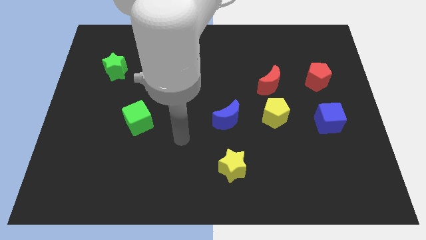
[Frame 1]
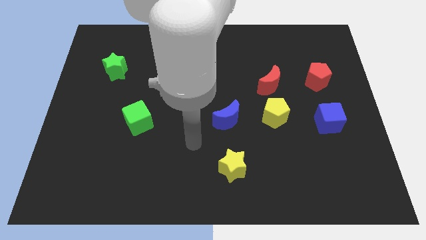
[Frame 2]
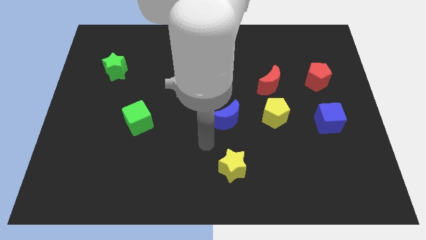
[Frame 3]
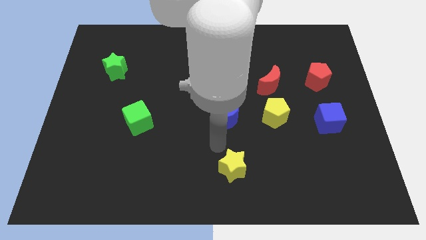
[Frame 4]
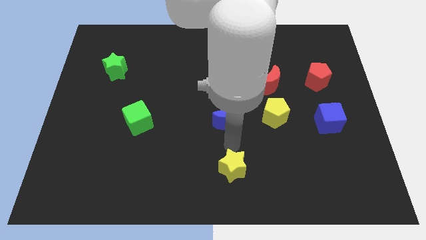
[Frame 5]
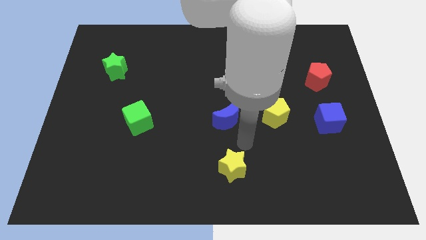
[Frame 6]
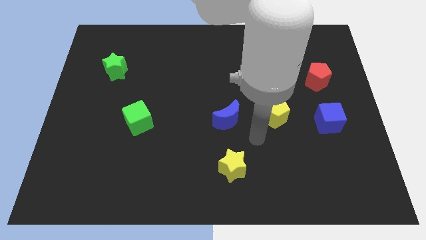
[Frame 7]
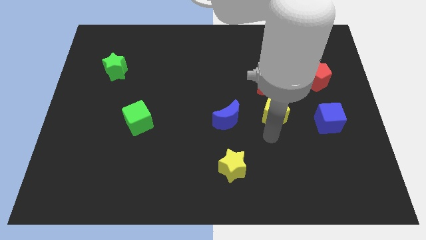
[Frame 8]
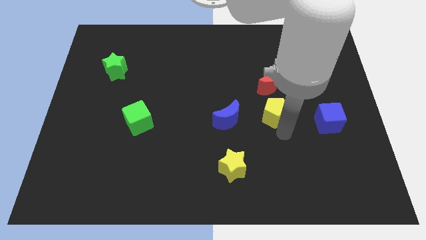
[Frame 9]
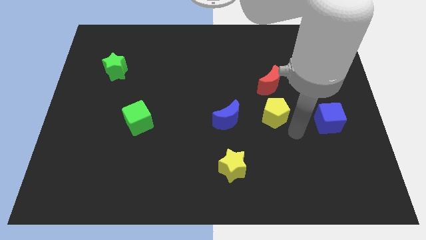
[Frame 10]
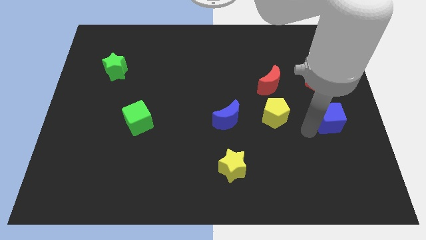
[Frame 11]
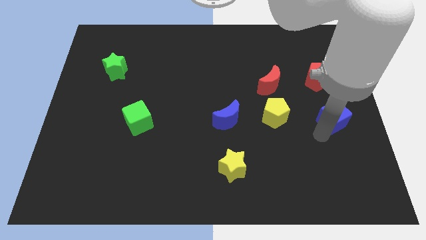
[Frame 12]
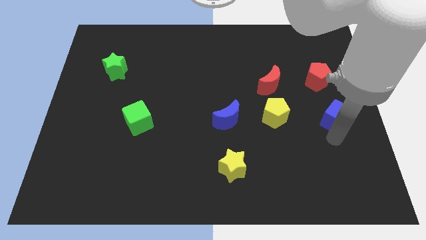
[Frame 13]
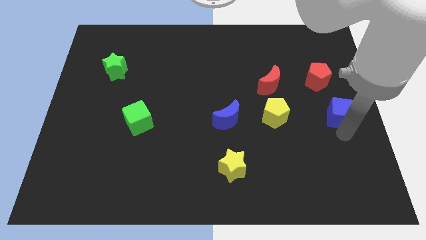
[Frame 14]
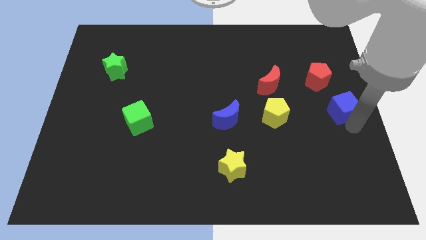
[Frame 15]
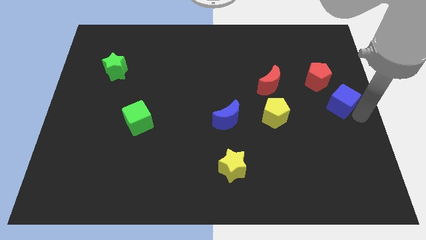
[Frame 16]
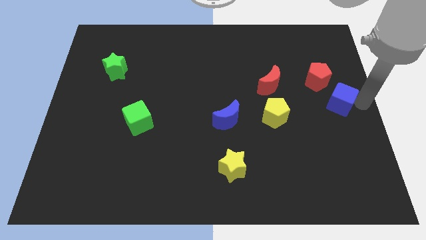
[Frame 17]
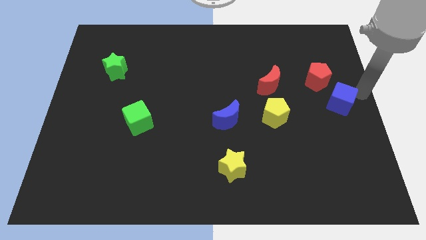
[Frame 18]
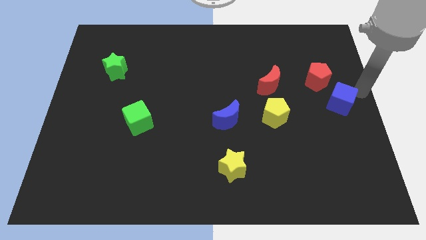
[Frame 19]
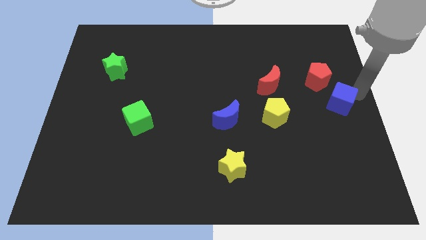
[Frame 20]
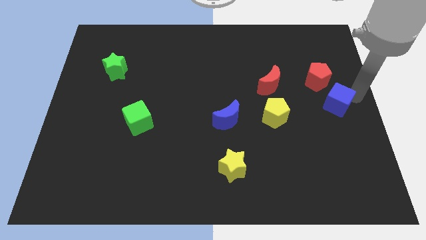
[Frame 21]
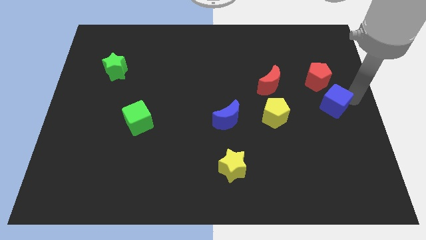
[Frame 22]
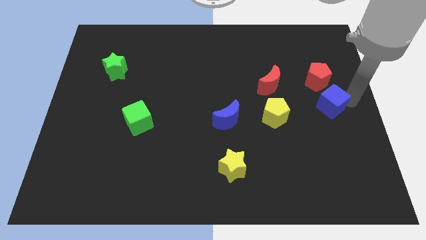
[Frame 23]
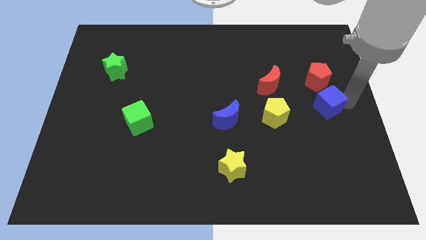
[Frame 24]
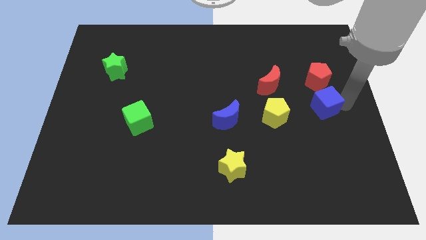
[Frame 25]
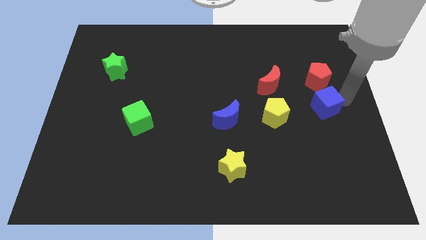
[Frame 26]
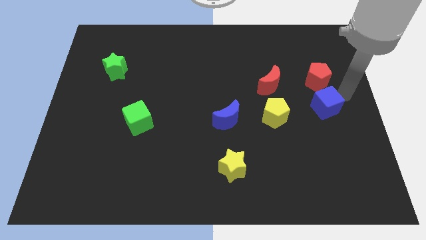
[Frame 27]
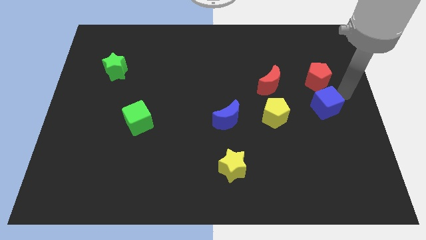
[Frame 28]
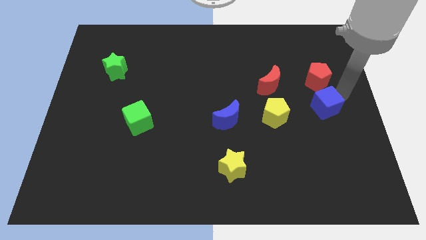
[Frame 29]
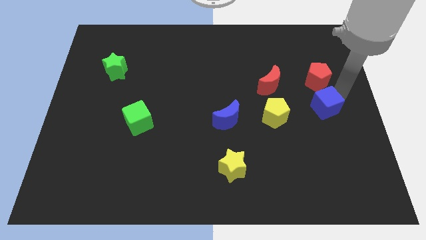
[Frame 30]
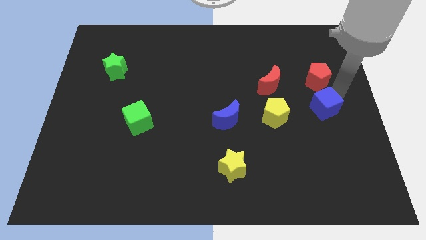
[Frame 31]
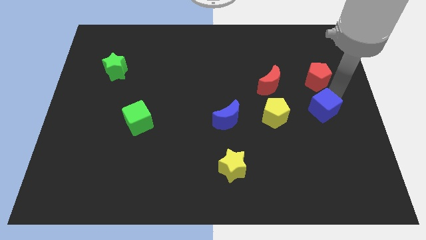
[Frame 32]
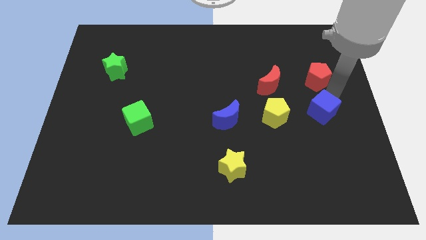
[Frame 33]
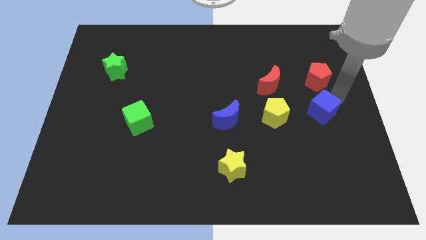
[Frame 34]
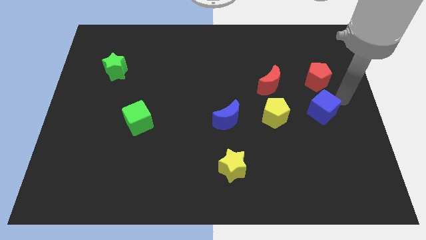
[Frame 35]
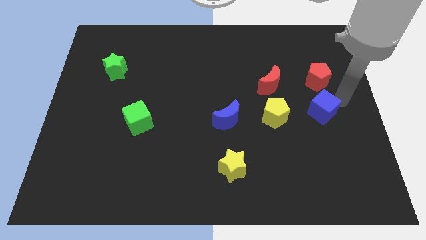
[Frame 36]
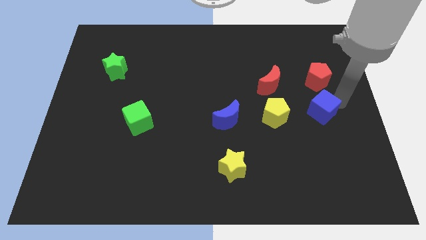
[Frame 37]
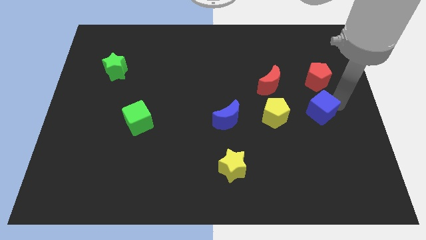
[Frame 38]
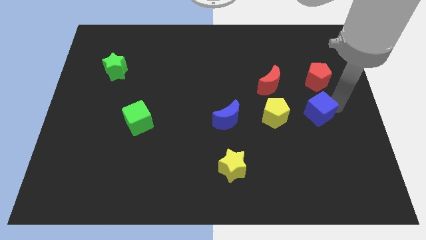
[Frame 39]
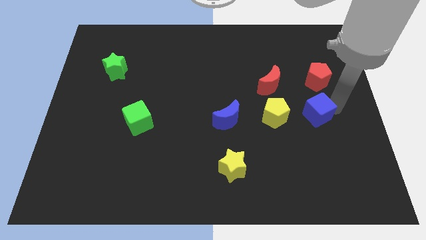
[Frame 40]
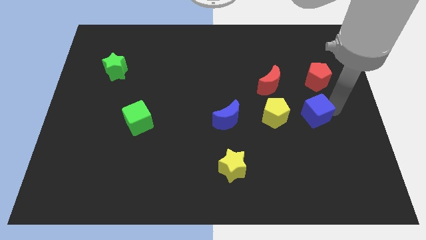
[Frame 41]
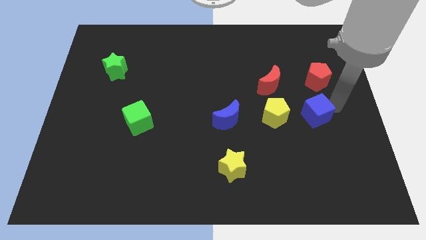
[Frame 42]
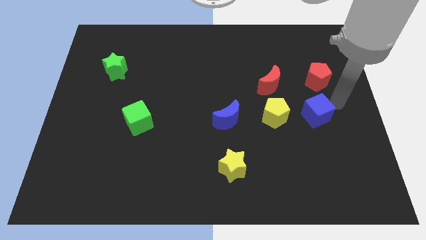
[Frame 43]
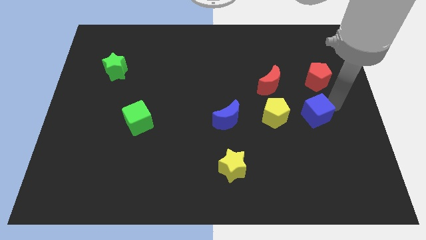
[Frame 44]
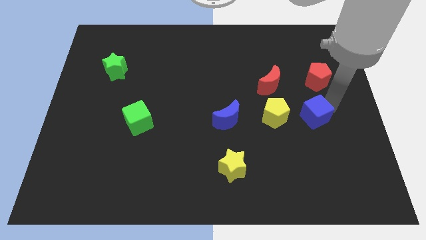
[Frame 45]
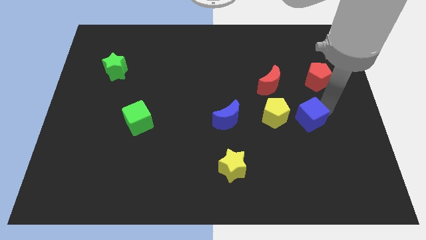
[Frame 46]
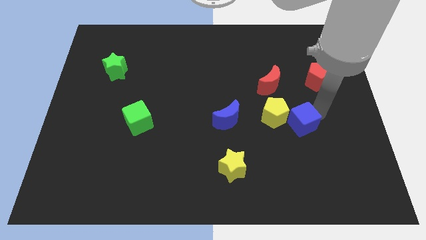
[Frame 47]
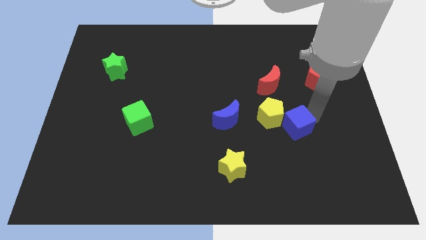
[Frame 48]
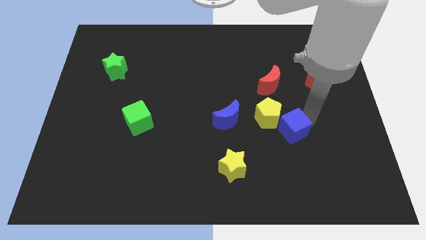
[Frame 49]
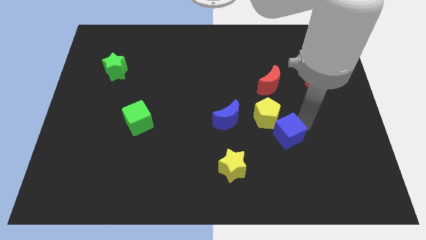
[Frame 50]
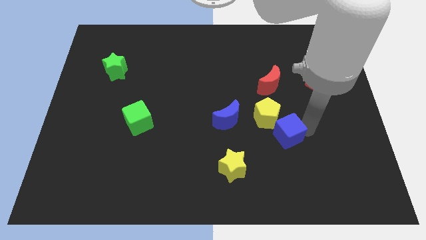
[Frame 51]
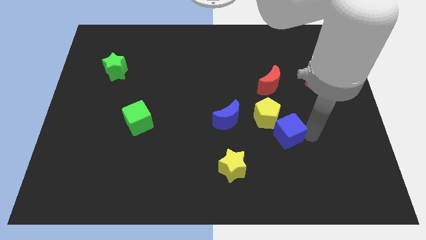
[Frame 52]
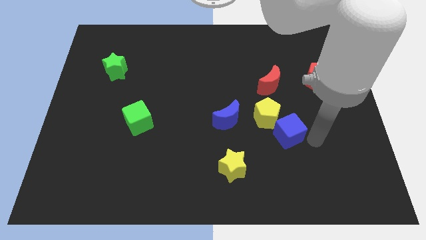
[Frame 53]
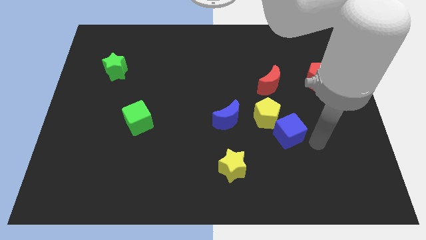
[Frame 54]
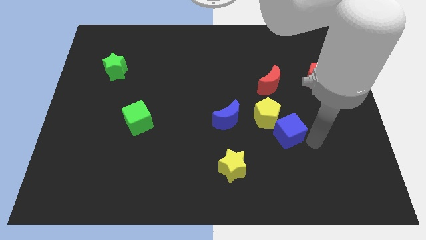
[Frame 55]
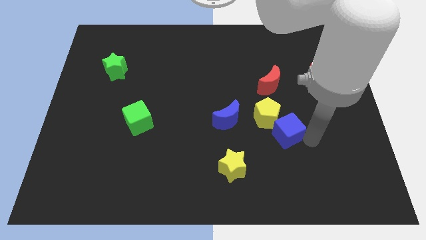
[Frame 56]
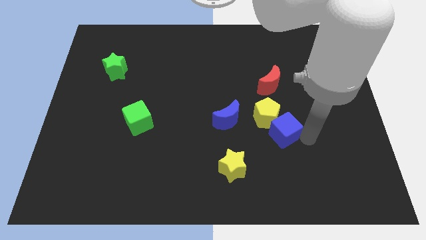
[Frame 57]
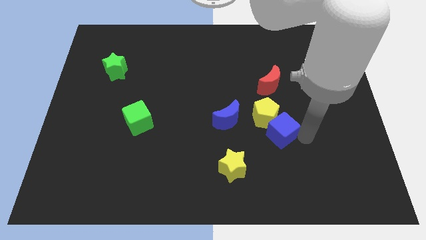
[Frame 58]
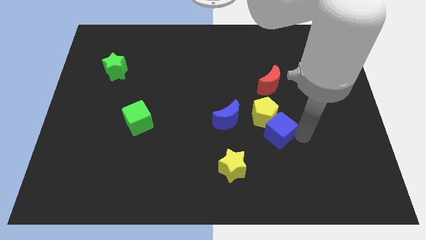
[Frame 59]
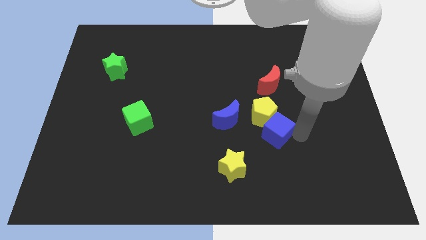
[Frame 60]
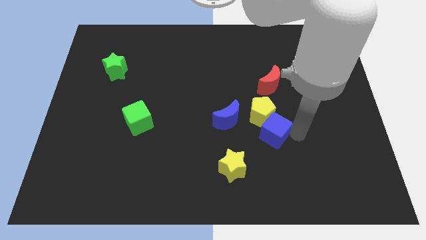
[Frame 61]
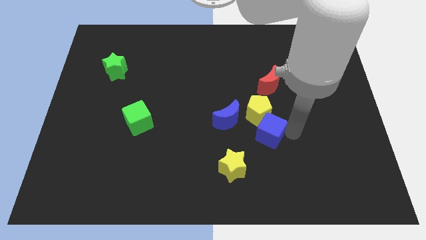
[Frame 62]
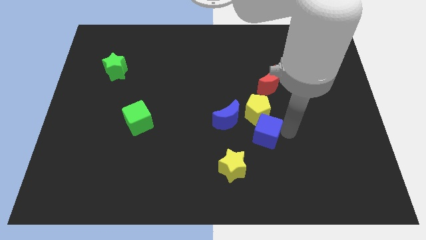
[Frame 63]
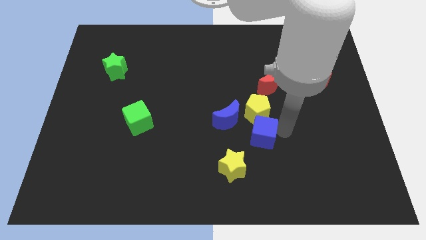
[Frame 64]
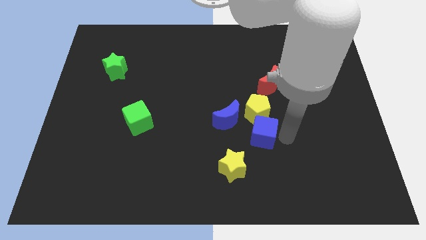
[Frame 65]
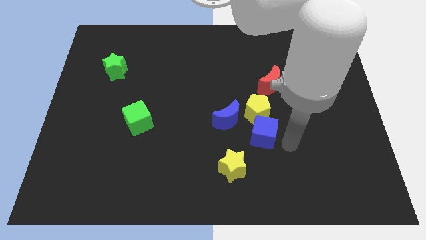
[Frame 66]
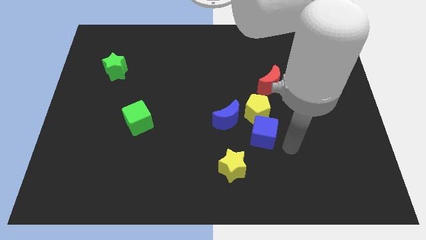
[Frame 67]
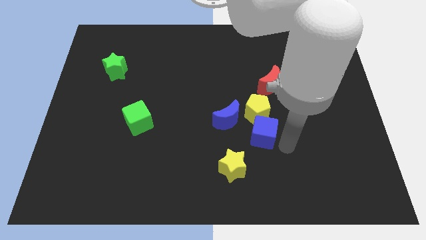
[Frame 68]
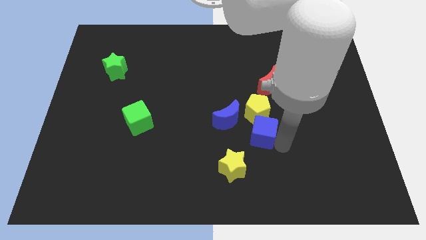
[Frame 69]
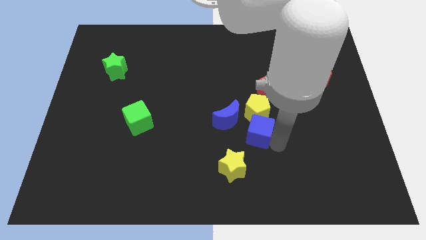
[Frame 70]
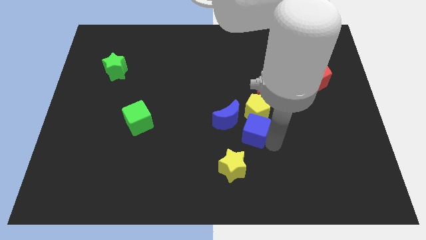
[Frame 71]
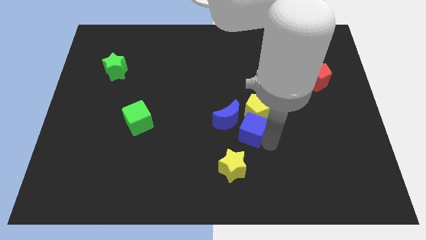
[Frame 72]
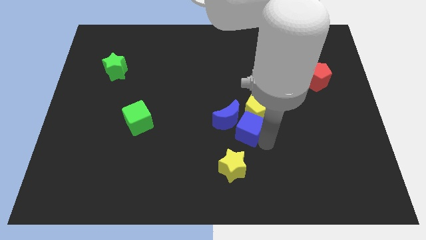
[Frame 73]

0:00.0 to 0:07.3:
put the blue cube towards the blue moon
